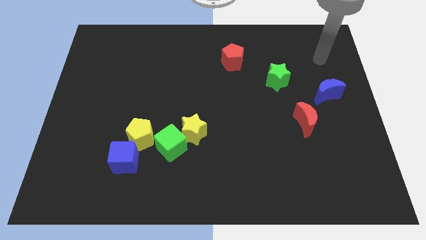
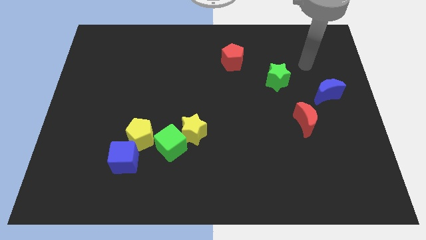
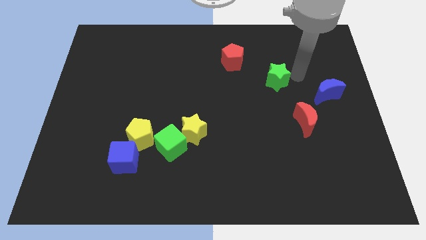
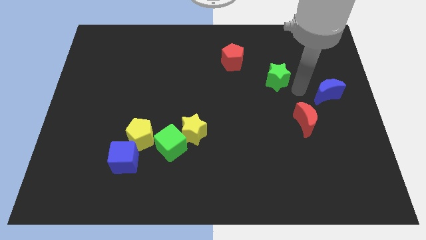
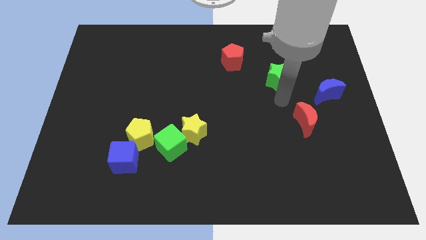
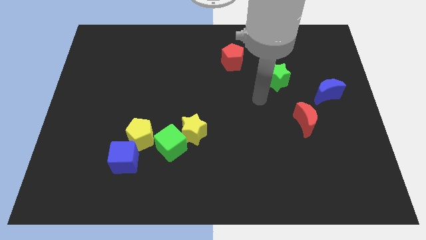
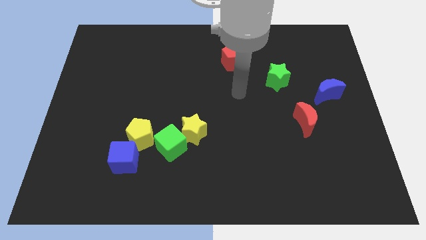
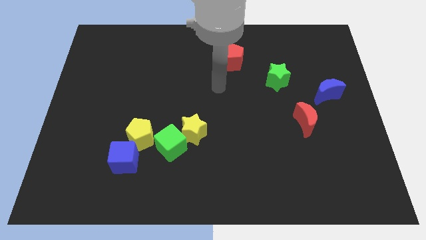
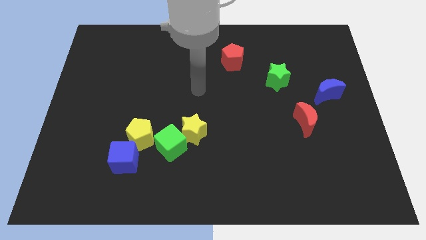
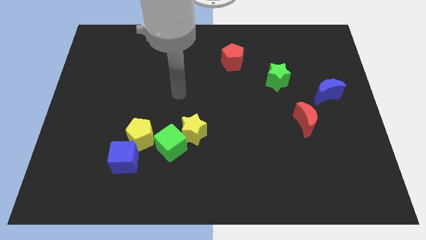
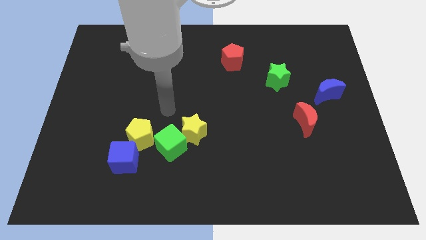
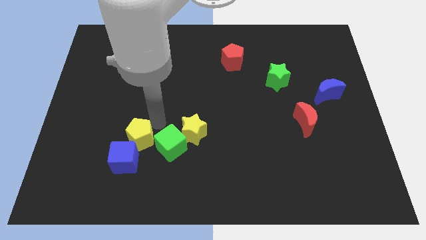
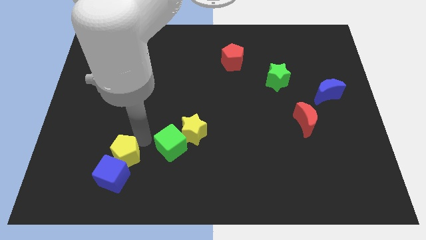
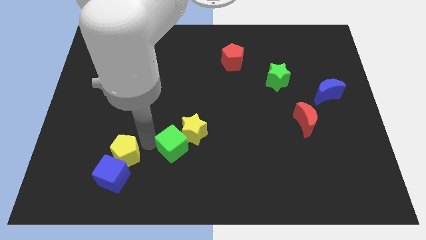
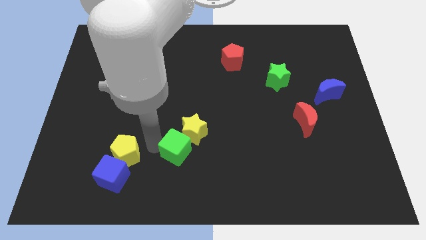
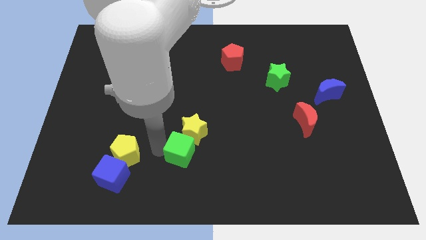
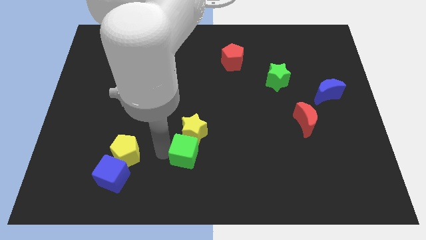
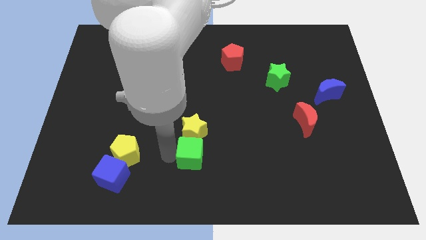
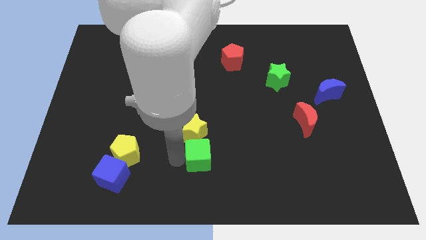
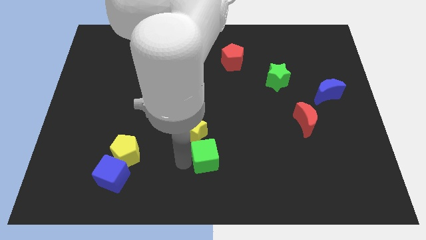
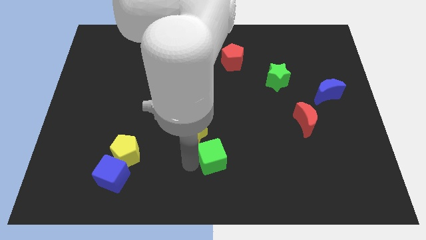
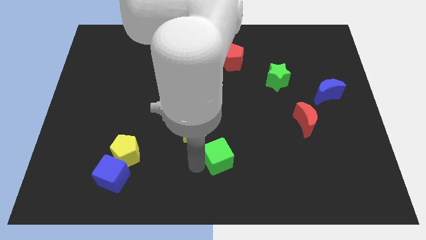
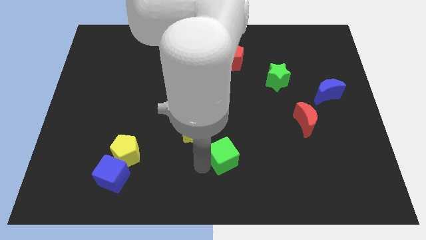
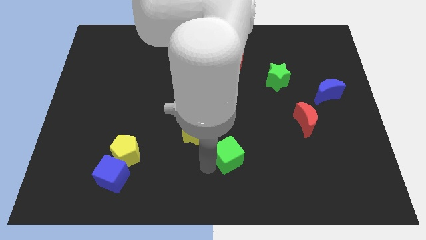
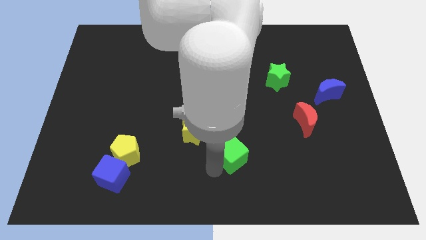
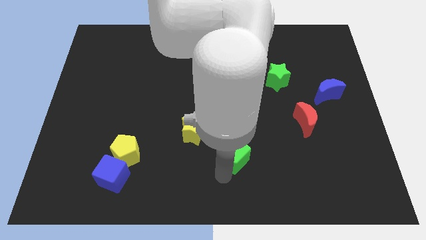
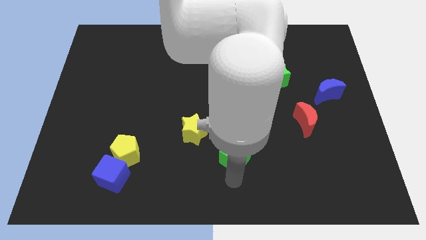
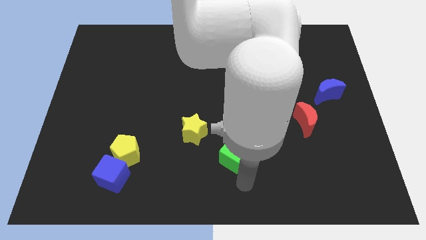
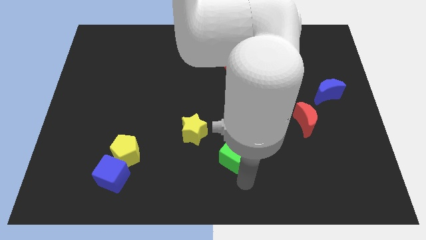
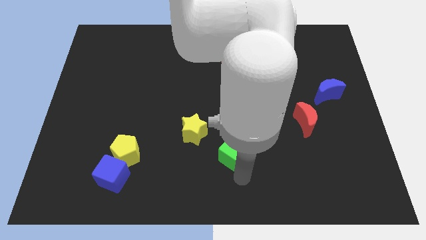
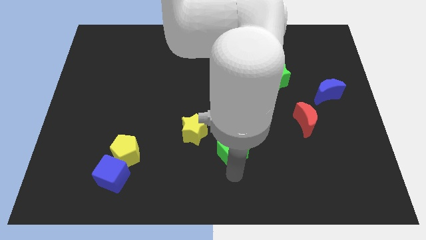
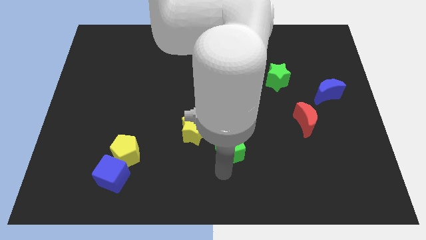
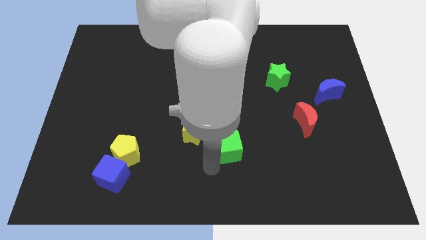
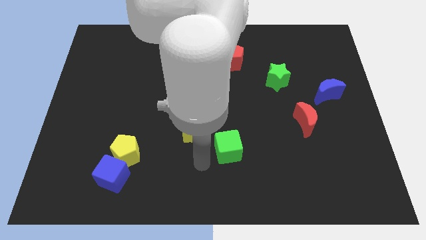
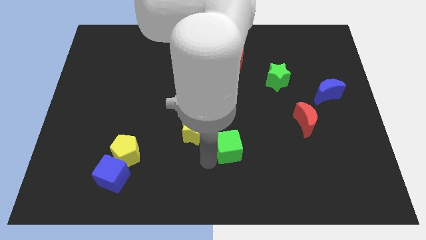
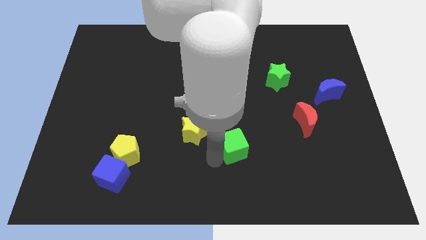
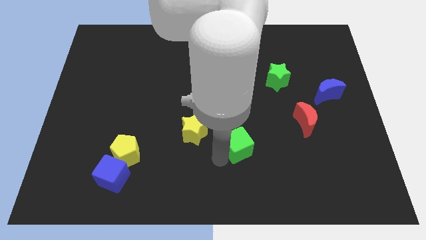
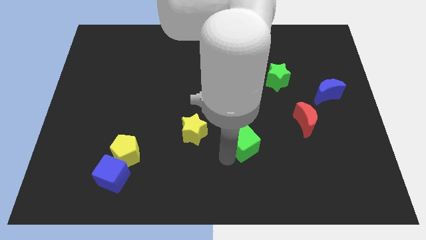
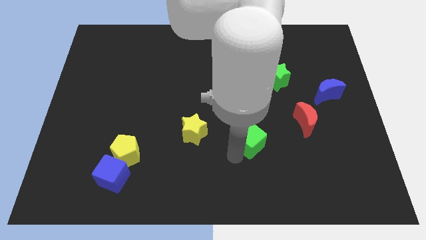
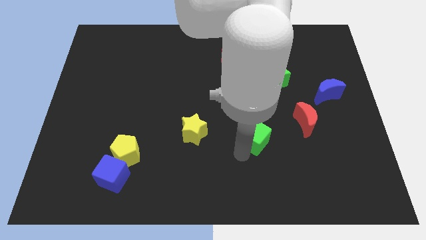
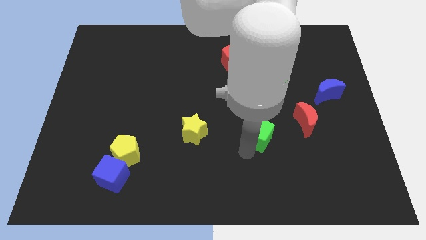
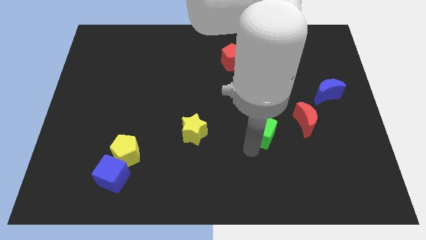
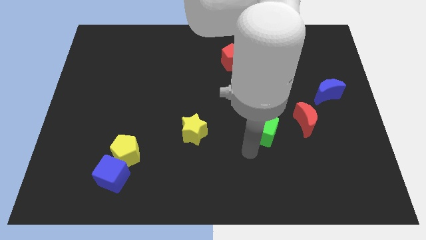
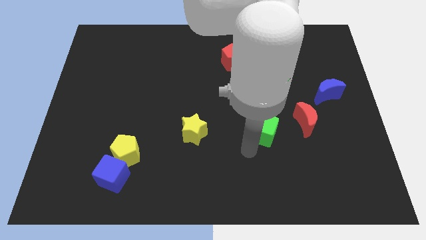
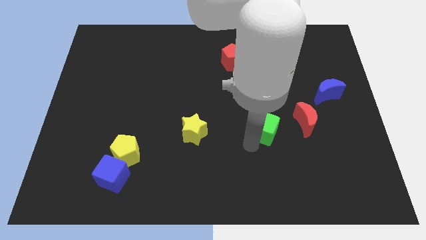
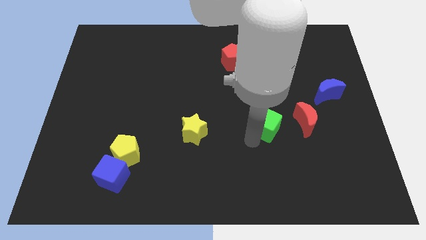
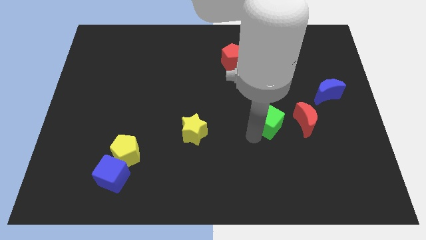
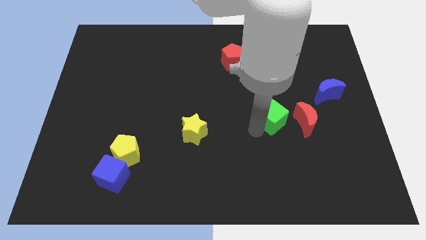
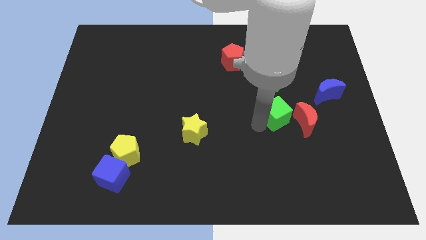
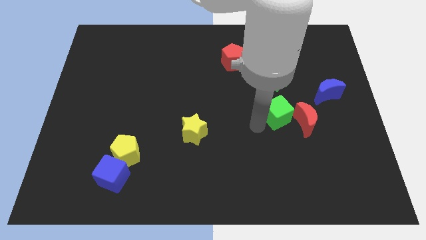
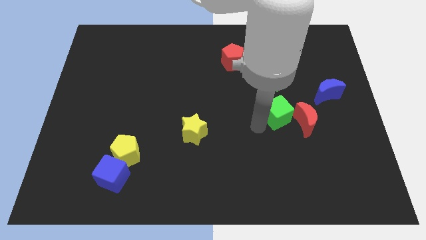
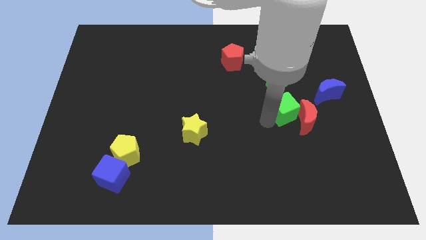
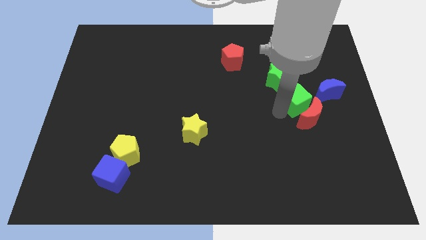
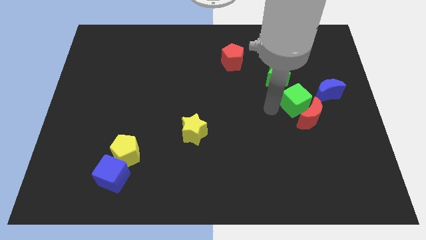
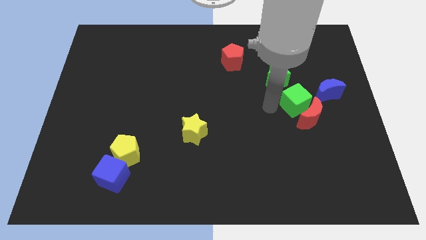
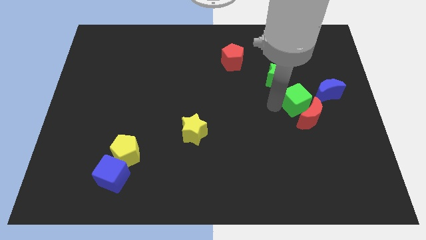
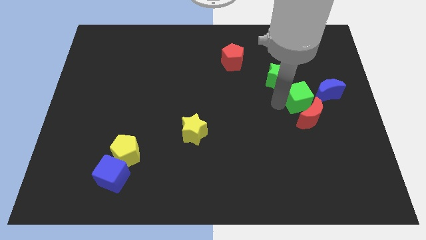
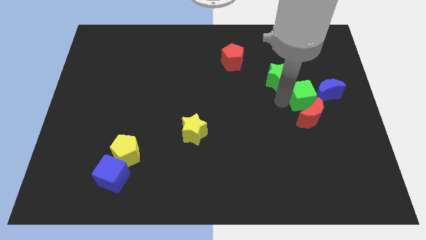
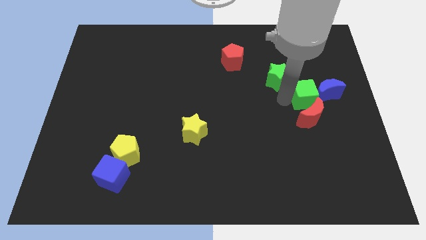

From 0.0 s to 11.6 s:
move the green cube to the blue moon

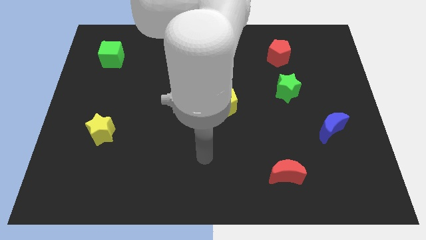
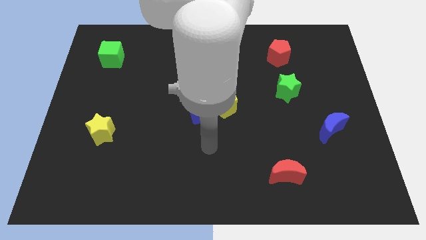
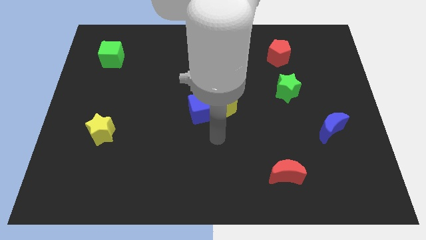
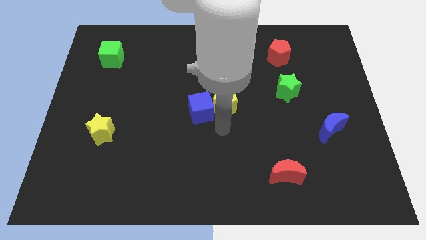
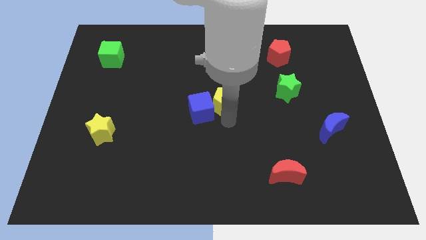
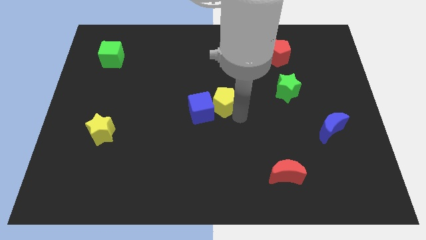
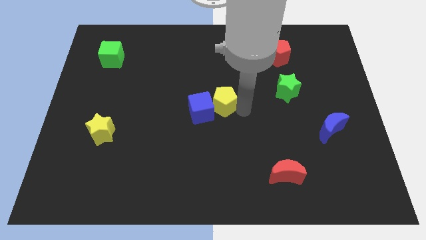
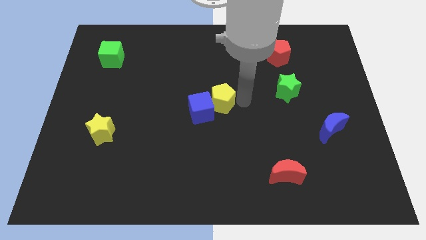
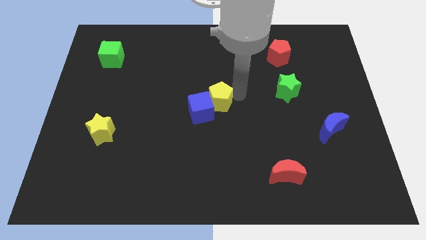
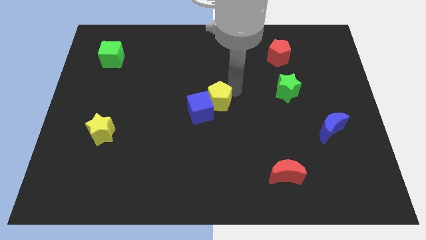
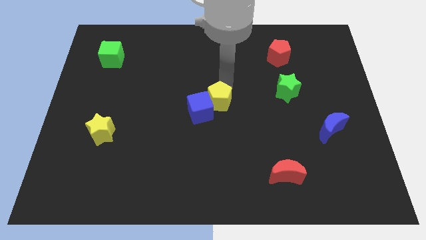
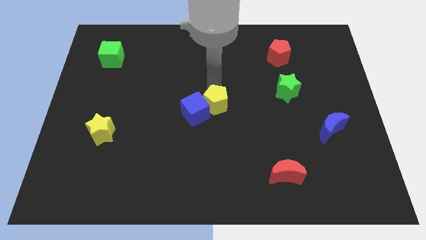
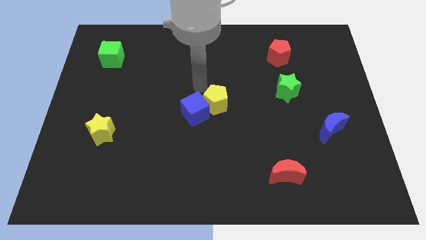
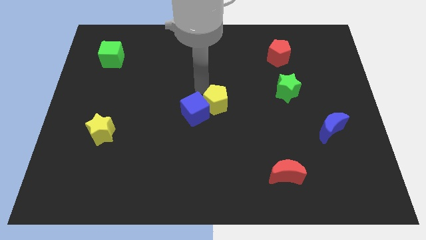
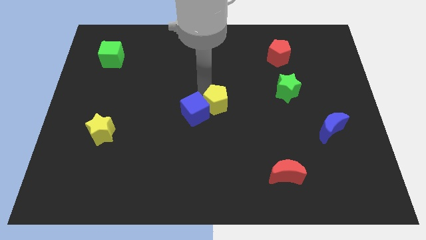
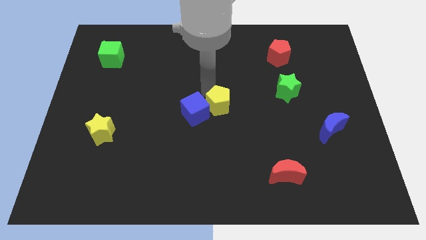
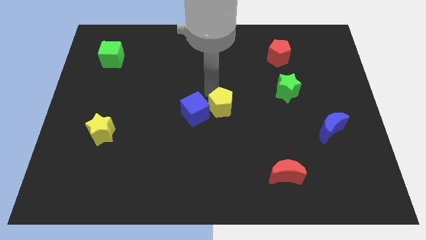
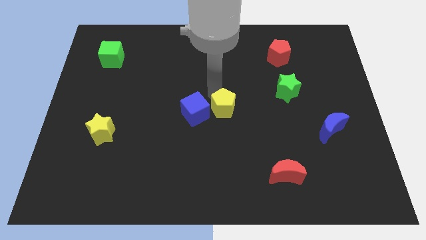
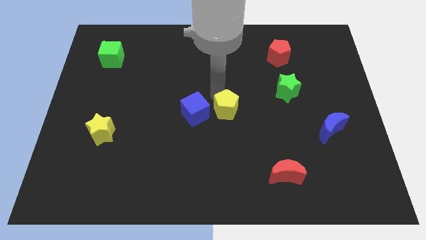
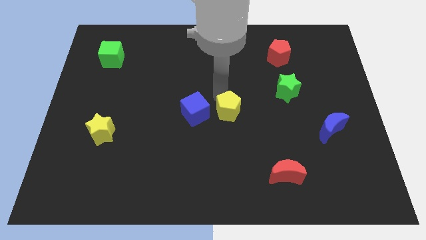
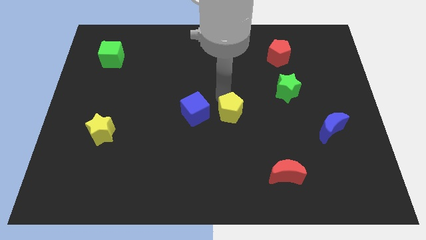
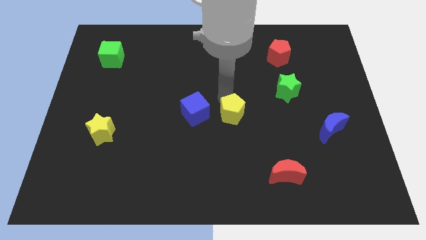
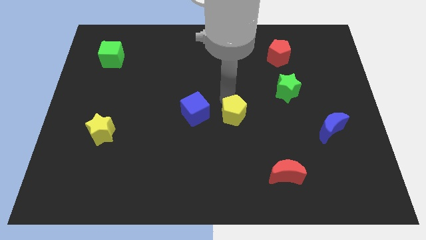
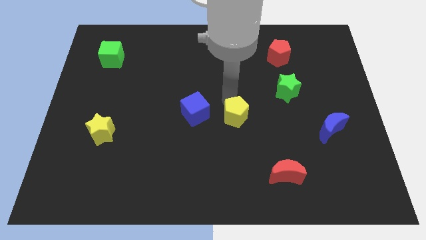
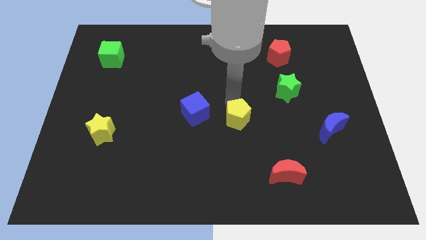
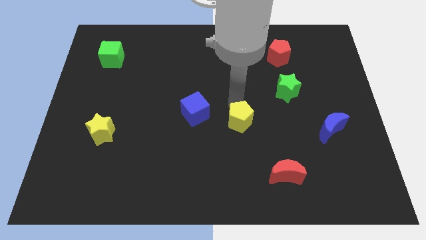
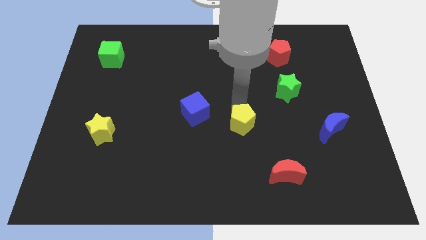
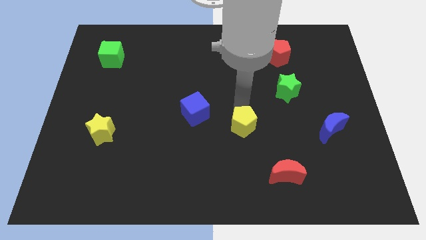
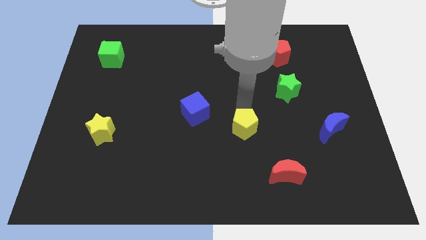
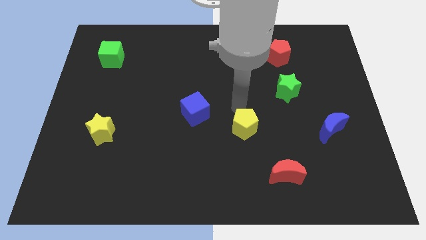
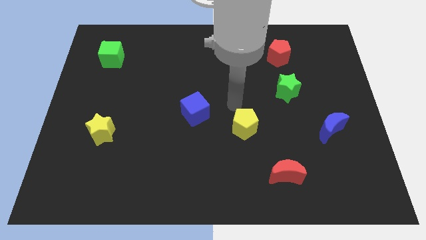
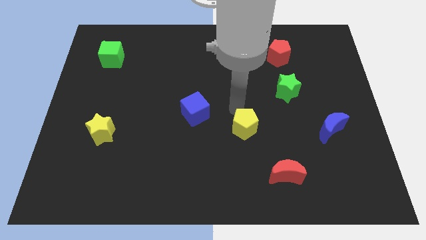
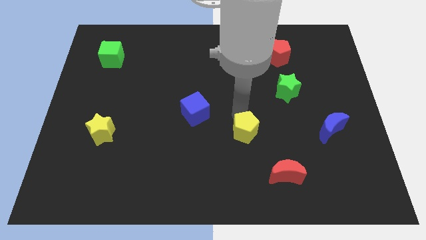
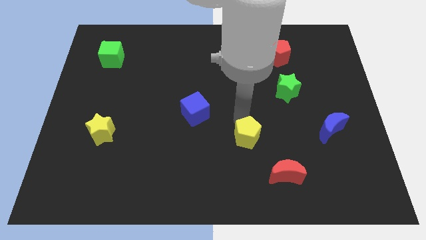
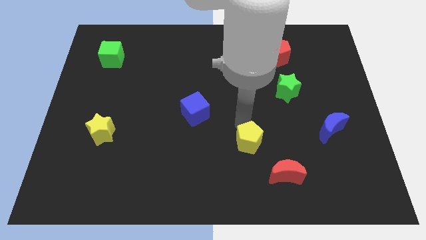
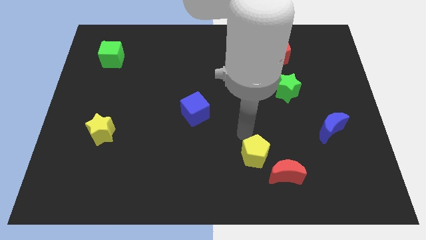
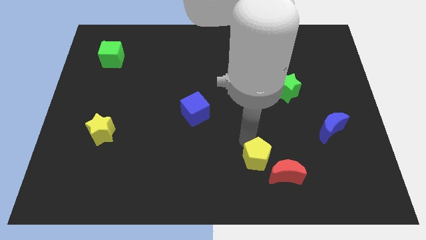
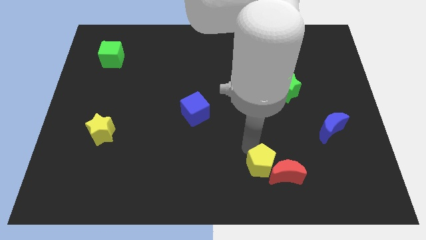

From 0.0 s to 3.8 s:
slide the yellow pentagon to the red moon
